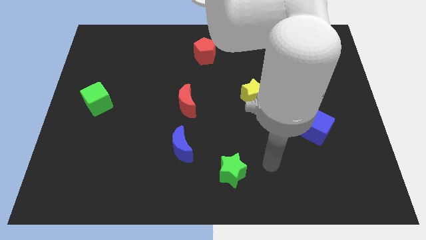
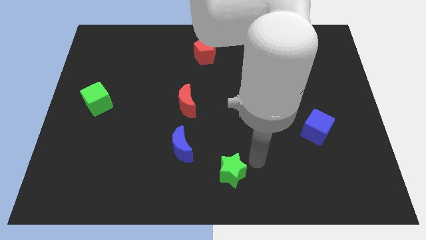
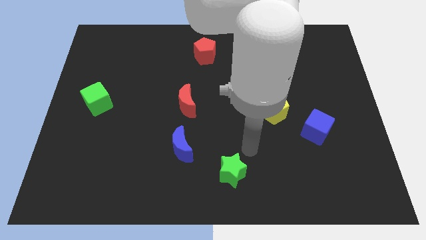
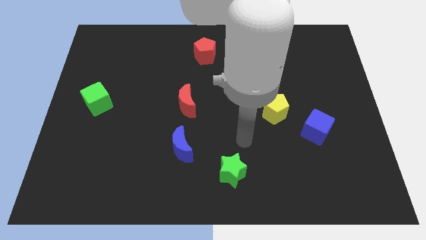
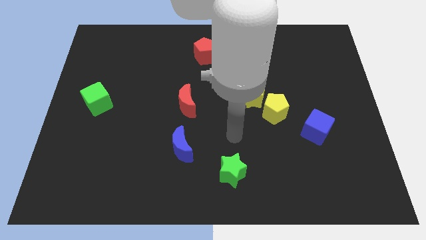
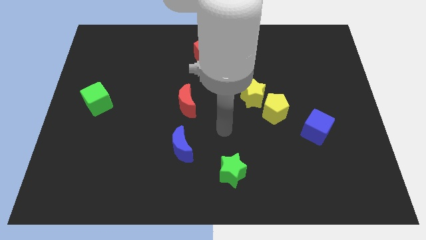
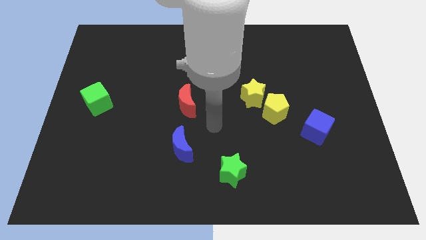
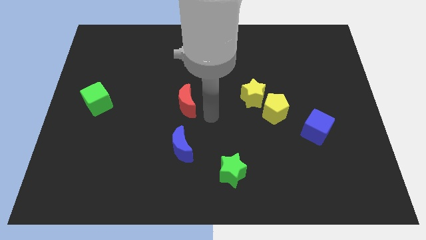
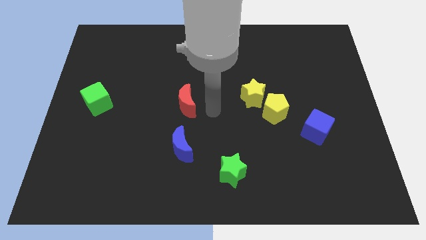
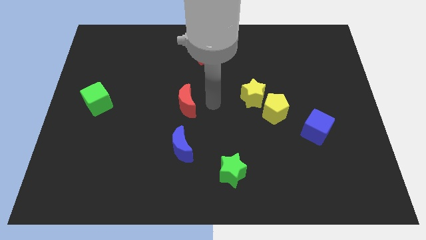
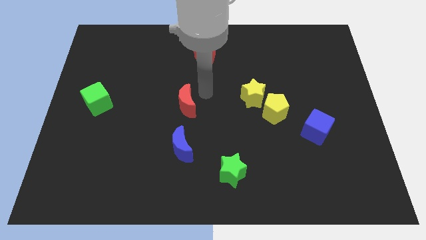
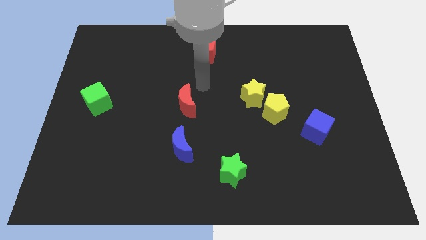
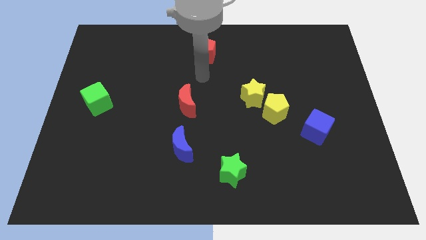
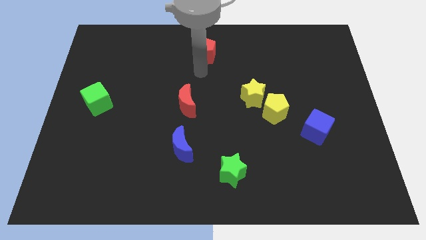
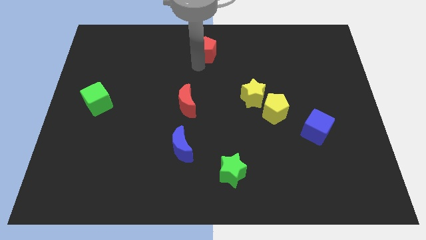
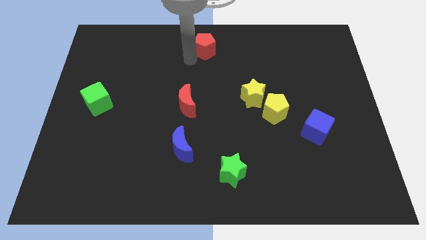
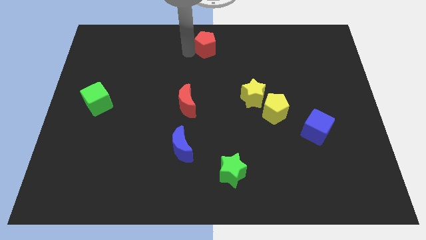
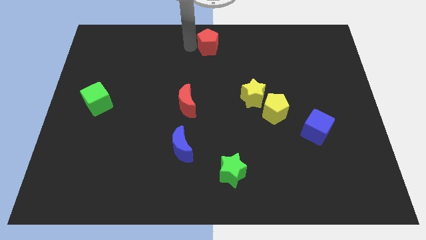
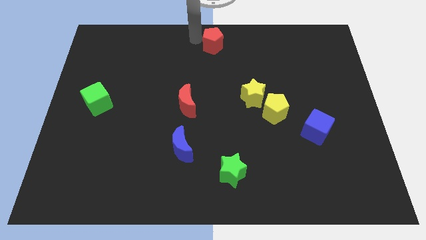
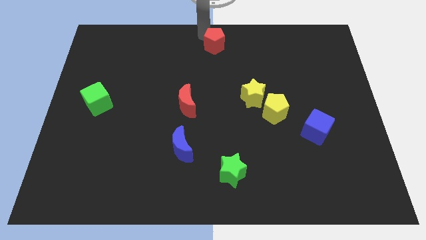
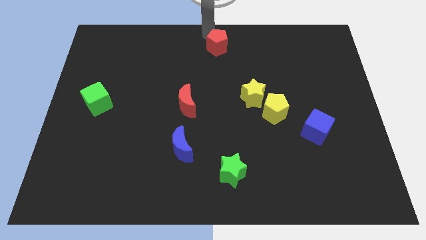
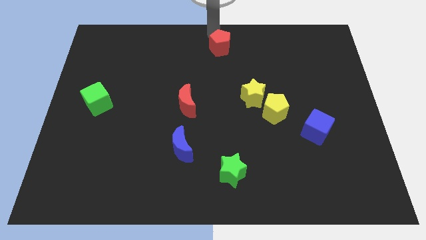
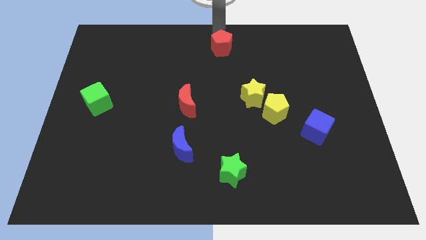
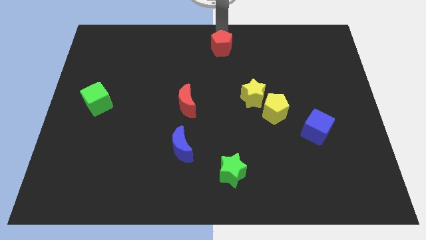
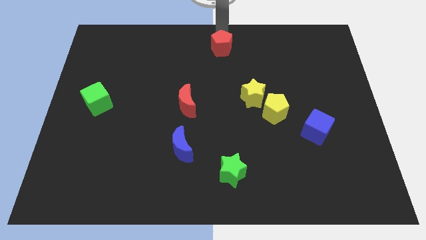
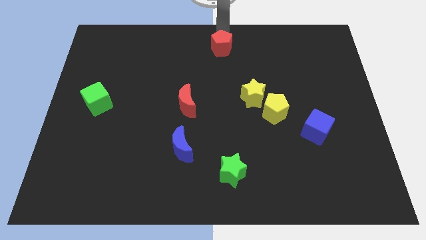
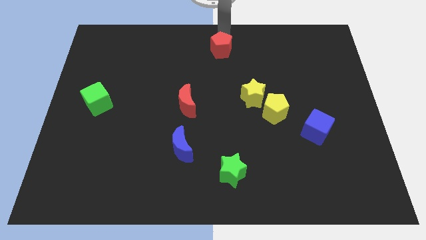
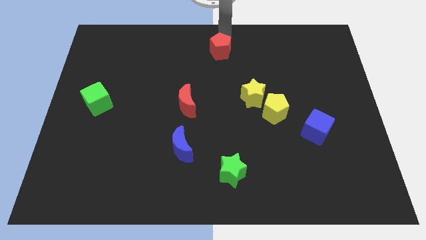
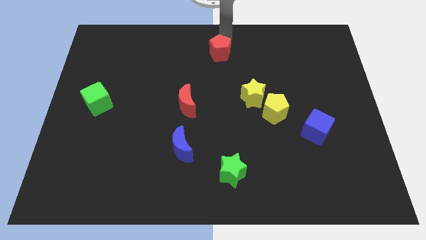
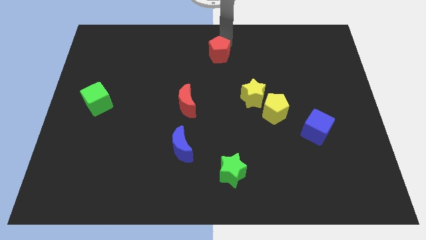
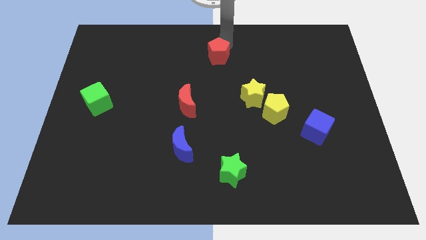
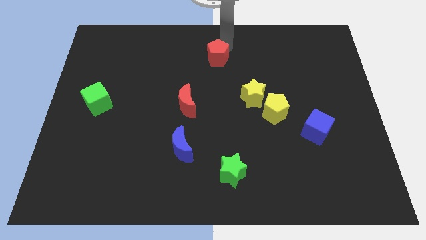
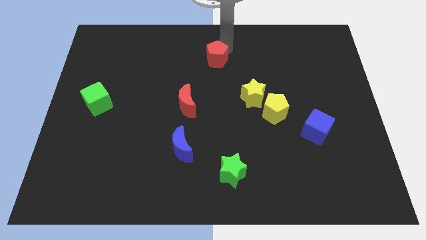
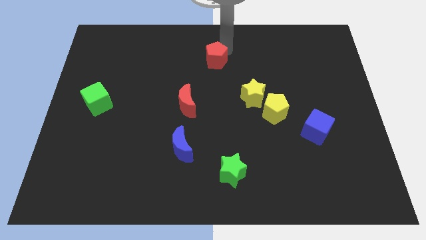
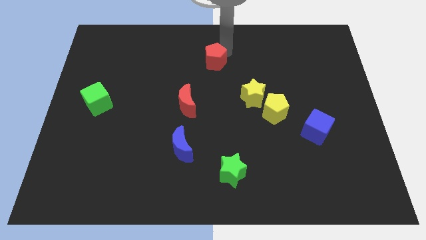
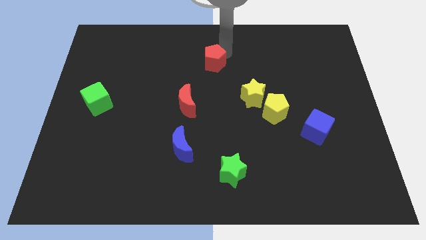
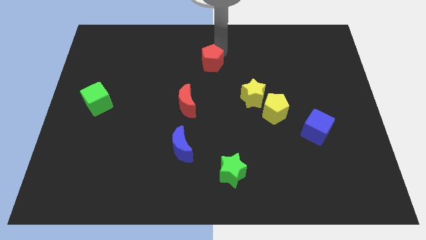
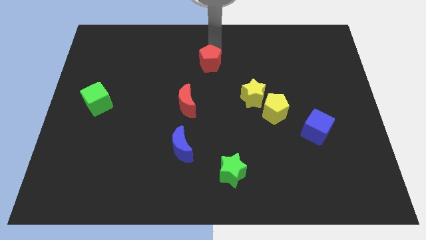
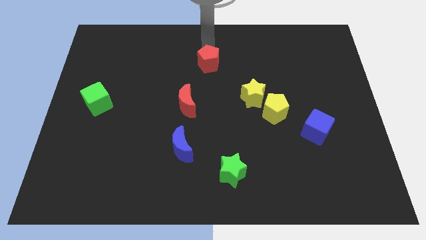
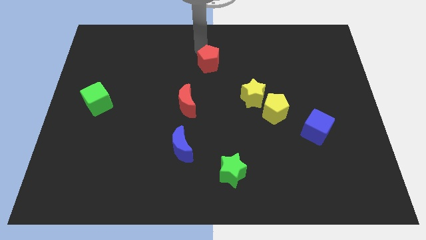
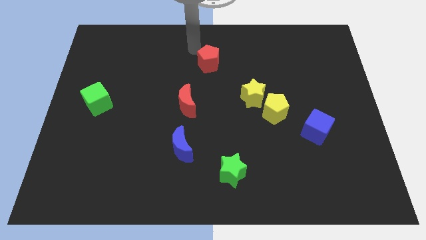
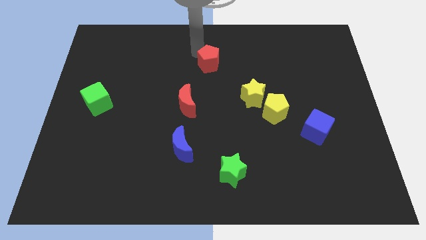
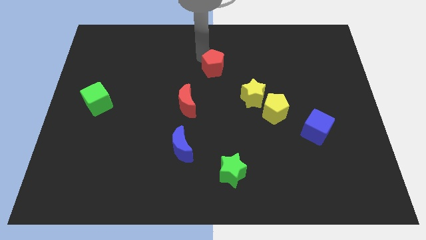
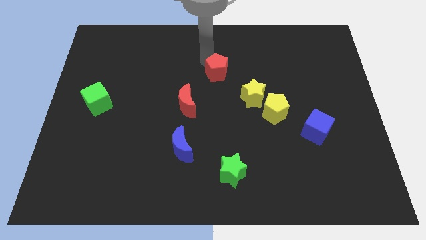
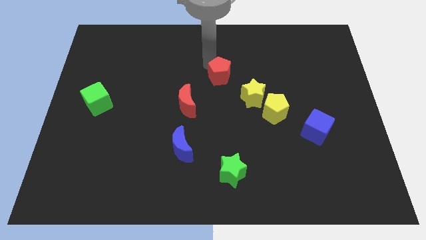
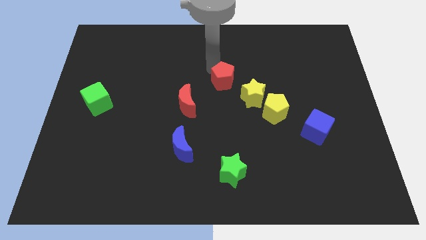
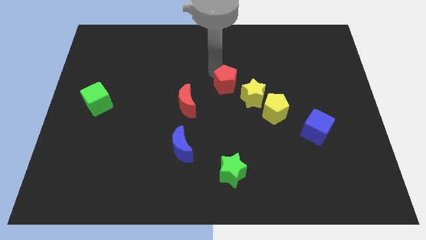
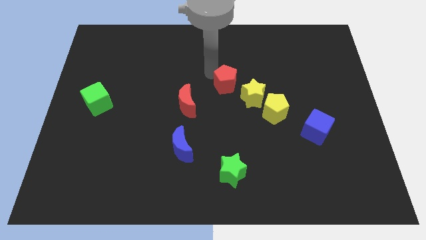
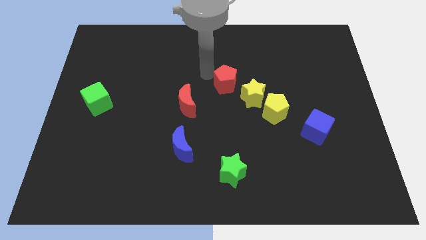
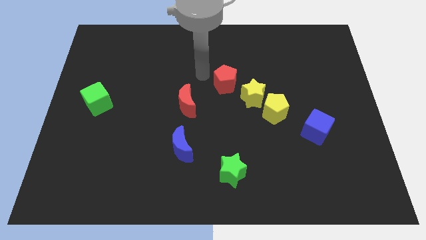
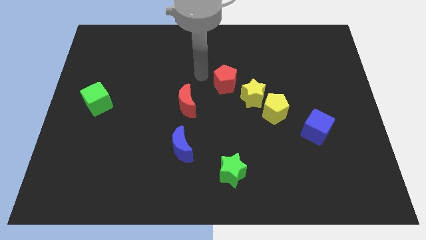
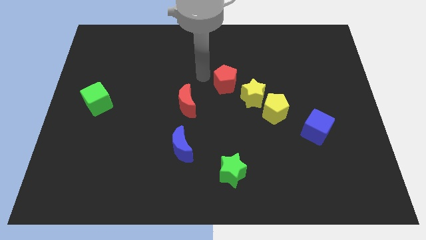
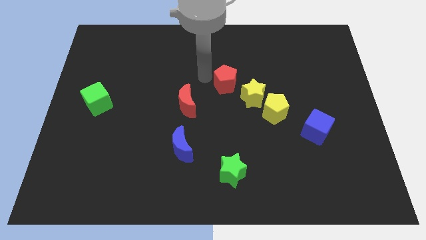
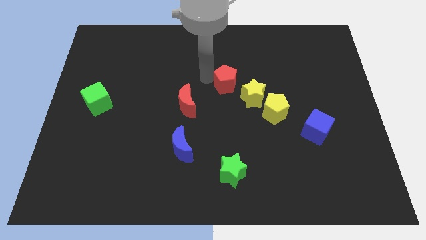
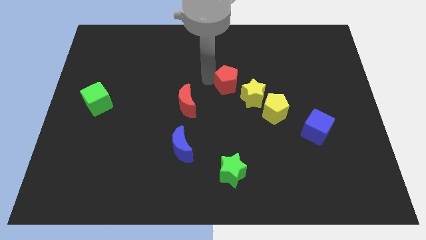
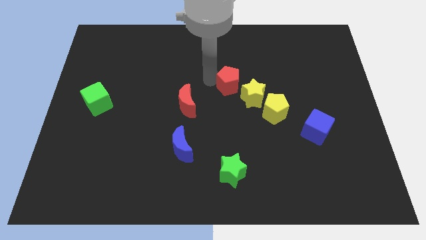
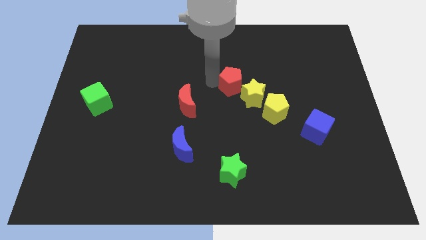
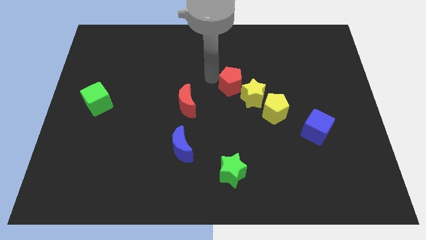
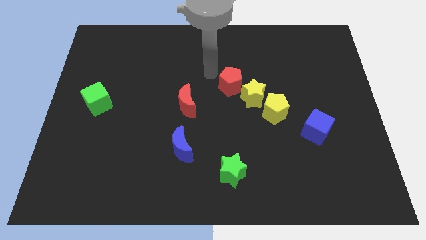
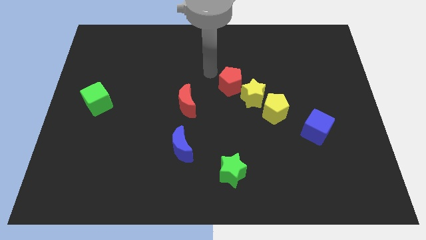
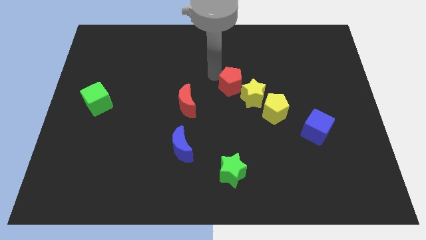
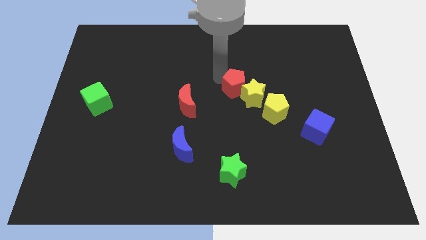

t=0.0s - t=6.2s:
move the red pentagon towards the yellow star
